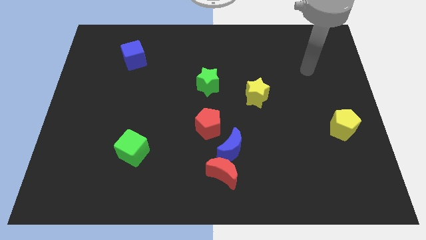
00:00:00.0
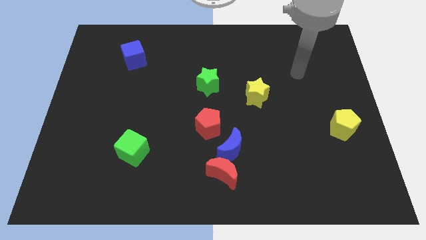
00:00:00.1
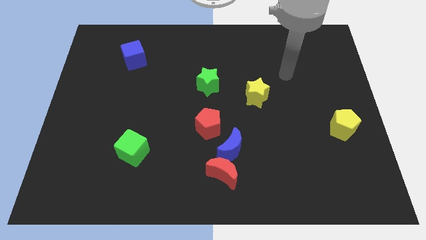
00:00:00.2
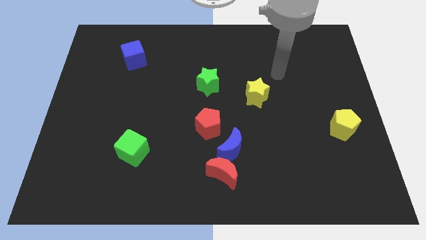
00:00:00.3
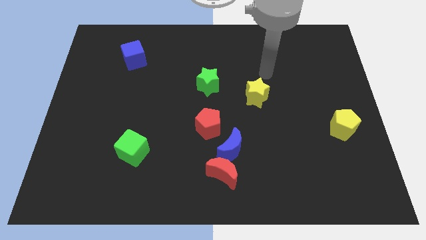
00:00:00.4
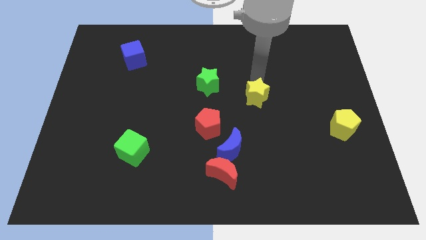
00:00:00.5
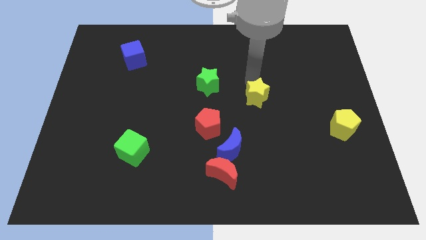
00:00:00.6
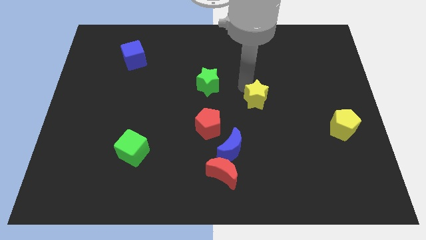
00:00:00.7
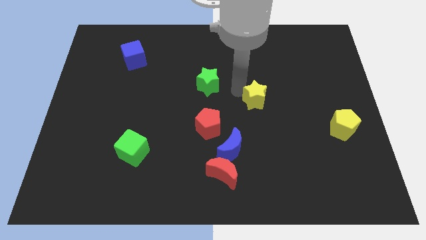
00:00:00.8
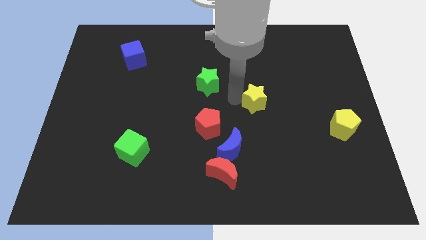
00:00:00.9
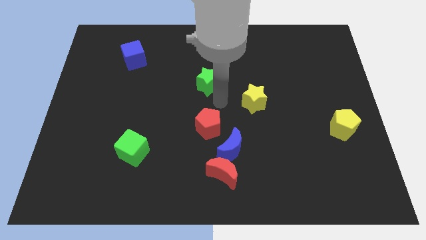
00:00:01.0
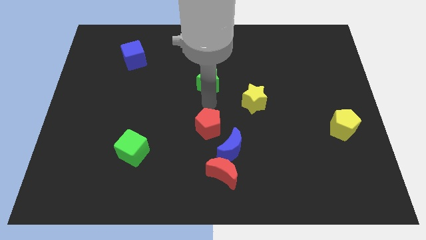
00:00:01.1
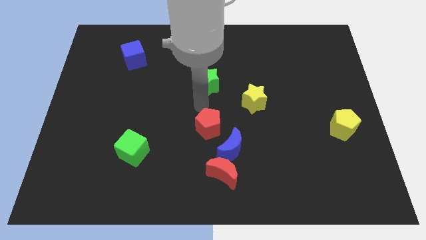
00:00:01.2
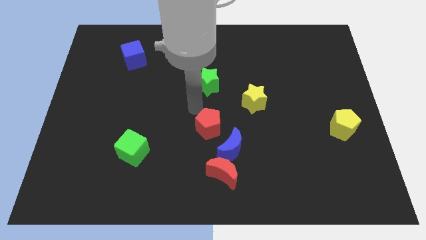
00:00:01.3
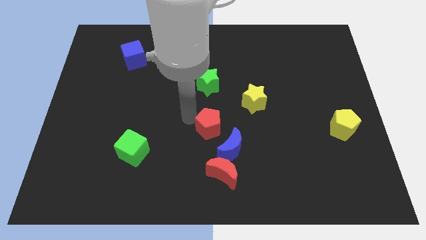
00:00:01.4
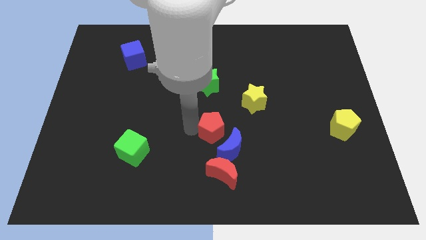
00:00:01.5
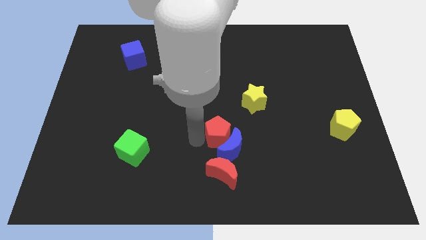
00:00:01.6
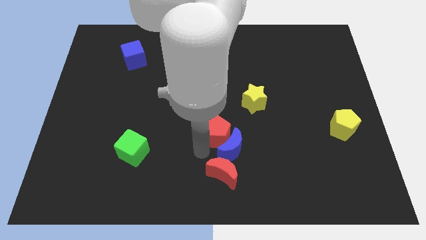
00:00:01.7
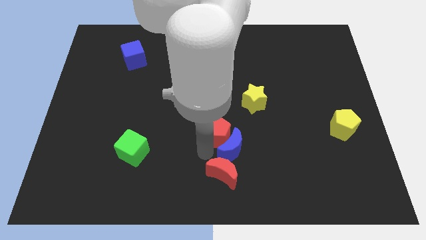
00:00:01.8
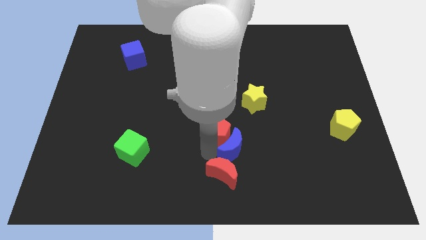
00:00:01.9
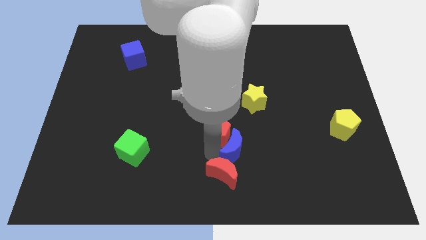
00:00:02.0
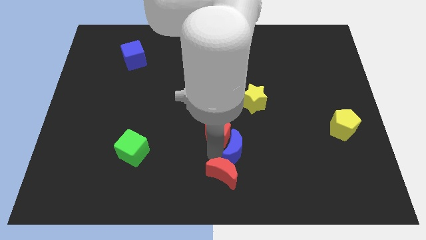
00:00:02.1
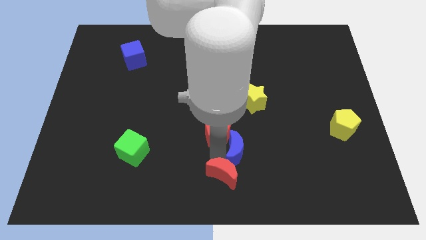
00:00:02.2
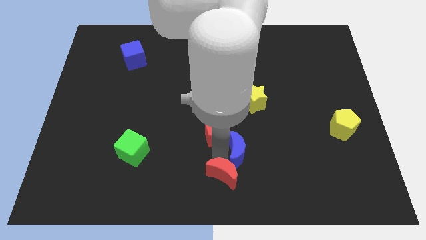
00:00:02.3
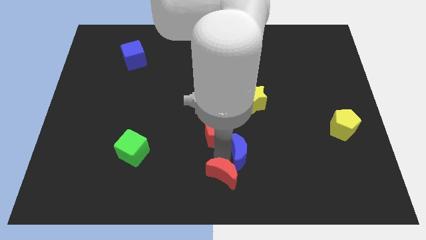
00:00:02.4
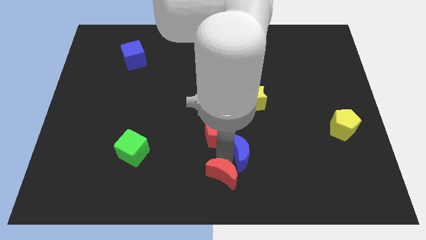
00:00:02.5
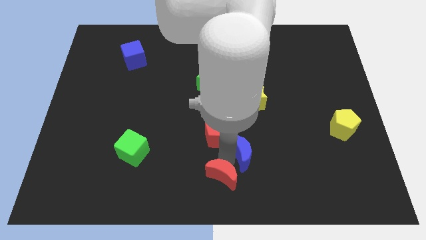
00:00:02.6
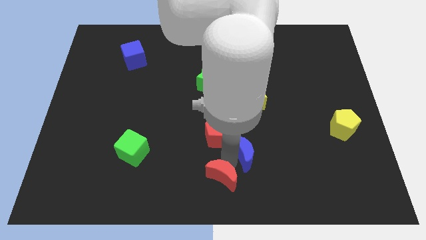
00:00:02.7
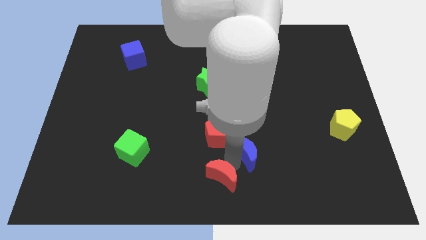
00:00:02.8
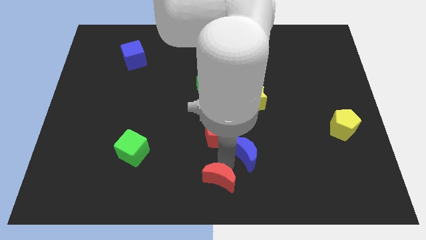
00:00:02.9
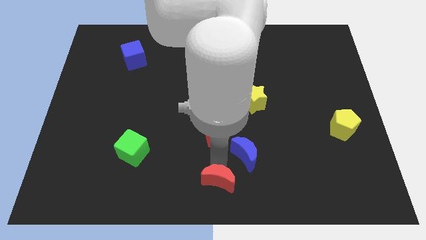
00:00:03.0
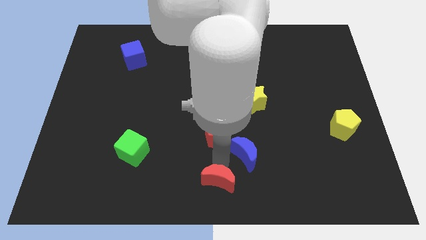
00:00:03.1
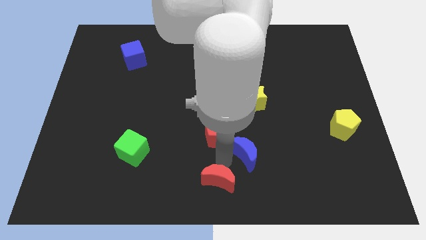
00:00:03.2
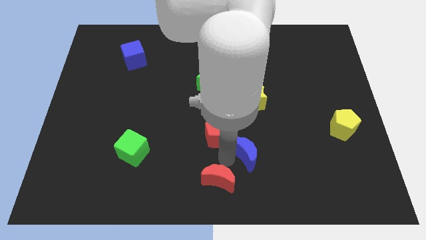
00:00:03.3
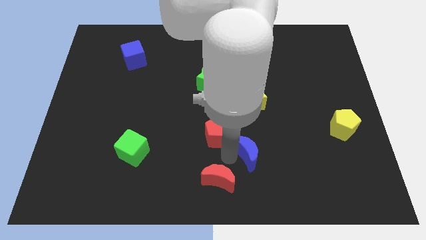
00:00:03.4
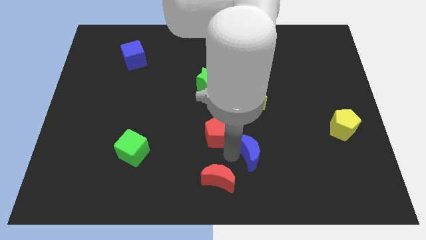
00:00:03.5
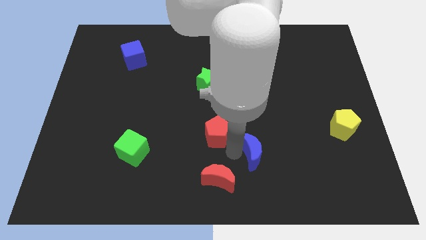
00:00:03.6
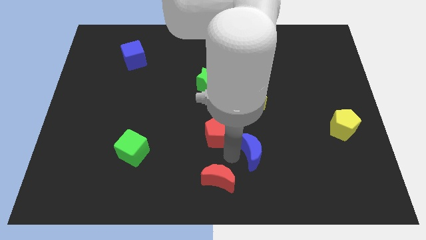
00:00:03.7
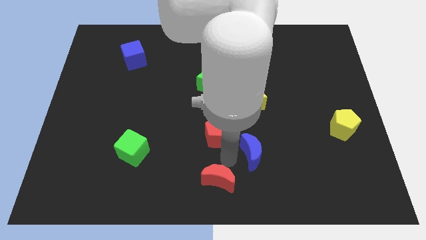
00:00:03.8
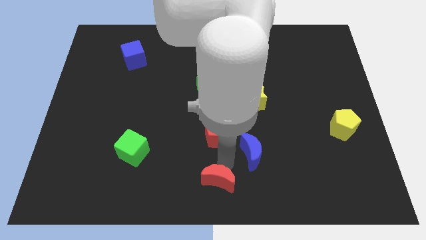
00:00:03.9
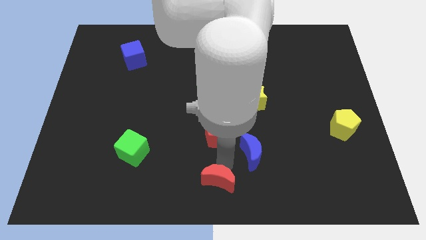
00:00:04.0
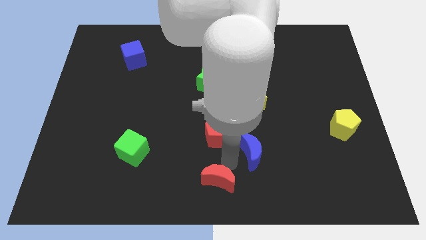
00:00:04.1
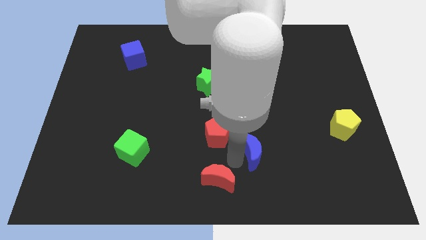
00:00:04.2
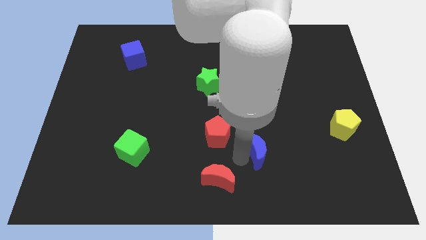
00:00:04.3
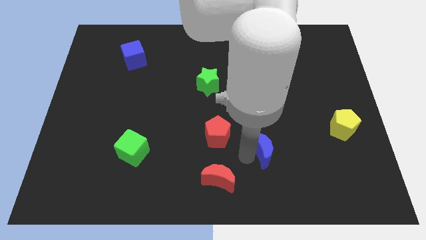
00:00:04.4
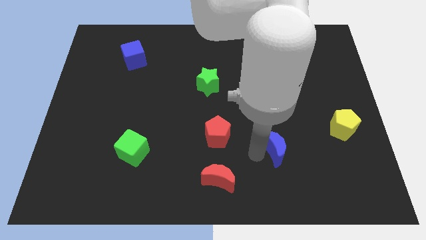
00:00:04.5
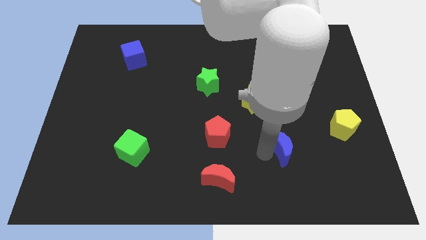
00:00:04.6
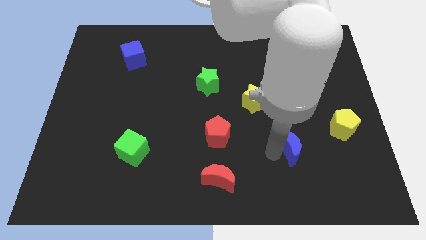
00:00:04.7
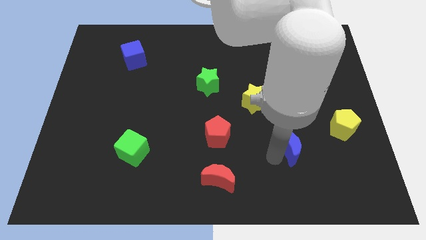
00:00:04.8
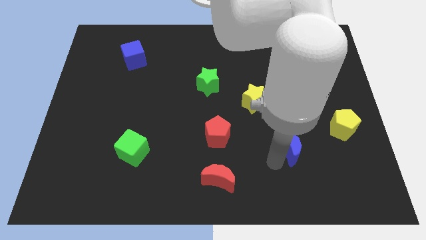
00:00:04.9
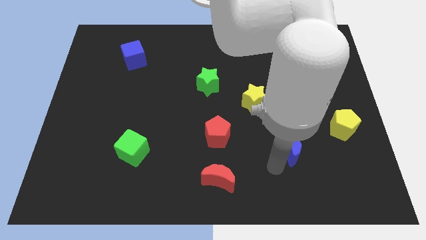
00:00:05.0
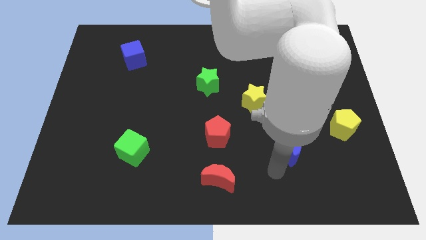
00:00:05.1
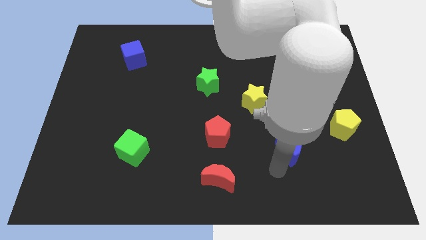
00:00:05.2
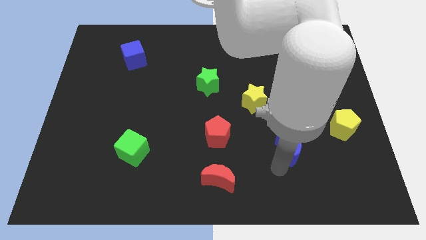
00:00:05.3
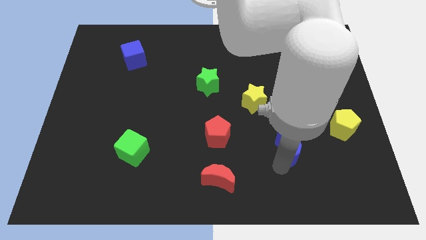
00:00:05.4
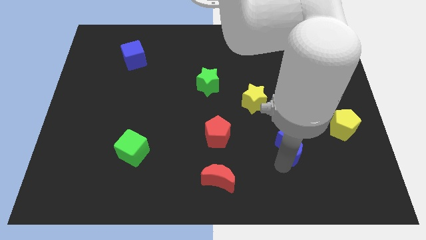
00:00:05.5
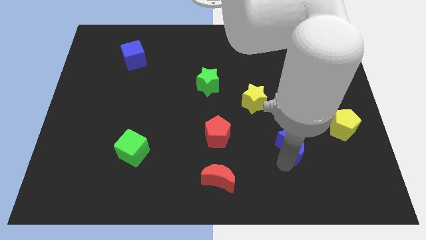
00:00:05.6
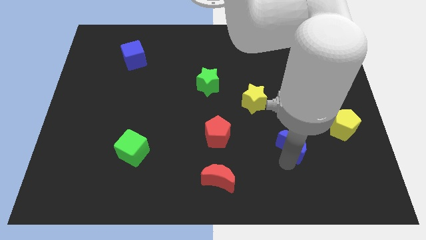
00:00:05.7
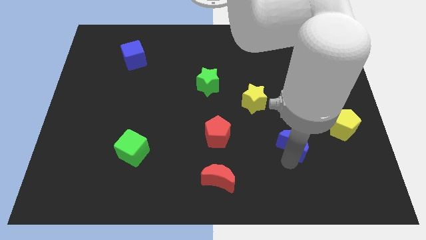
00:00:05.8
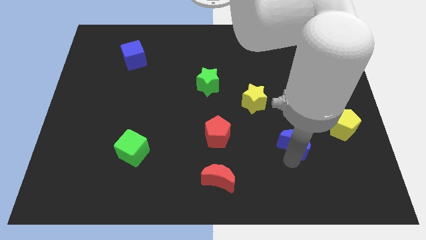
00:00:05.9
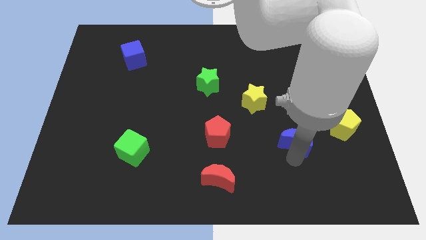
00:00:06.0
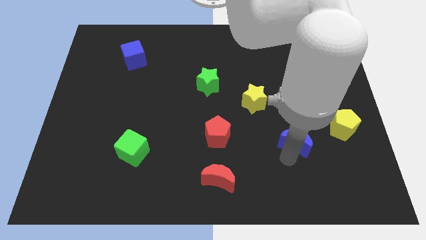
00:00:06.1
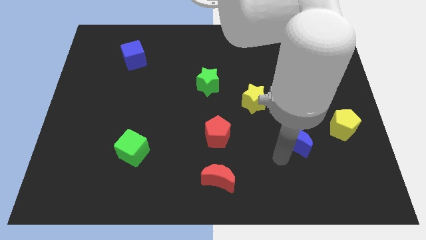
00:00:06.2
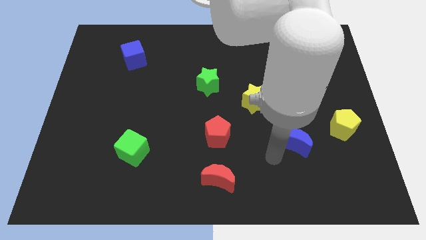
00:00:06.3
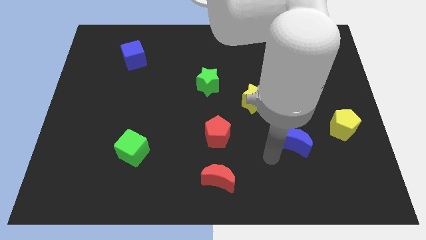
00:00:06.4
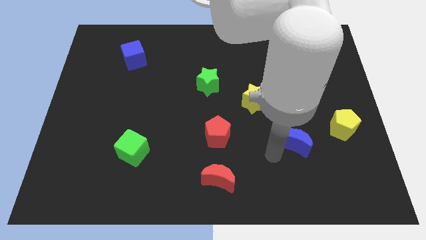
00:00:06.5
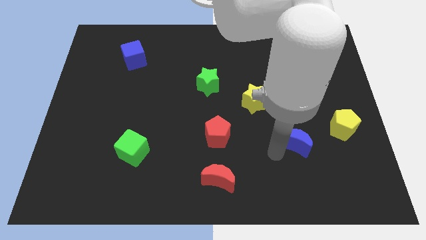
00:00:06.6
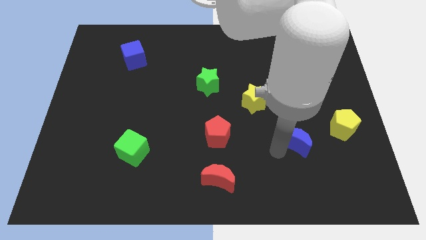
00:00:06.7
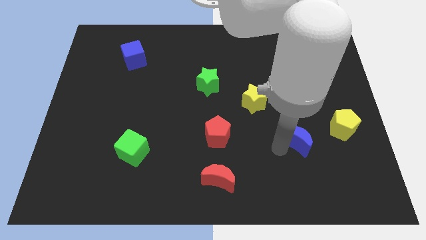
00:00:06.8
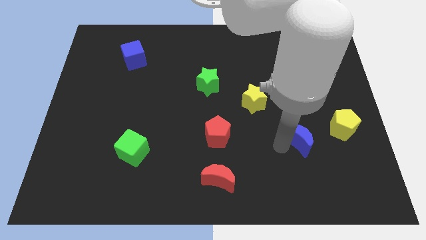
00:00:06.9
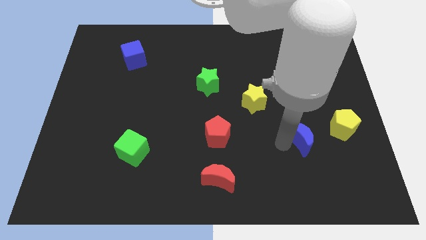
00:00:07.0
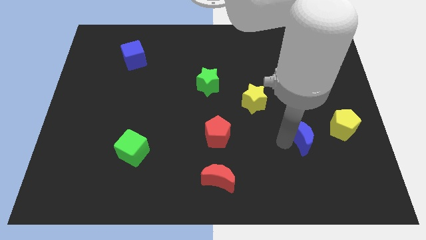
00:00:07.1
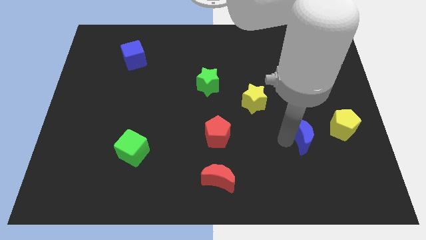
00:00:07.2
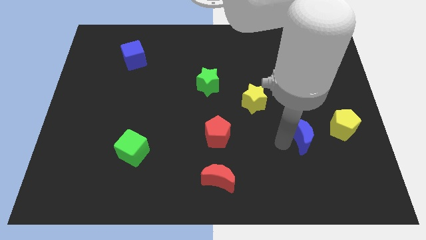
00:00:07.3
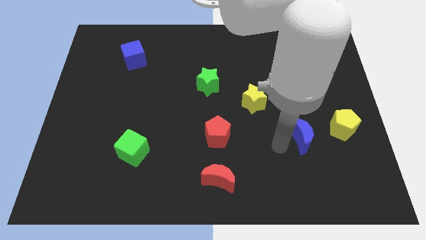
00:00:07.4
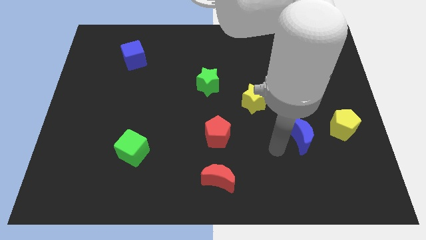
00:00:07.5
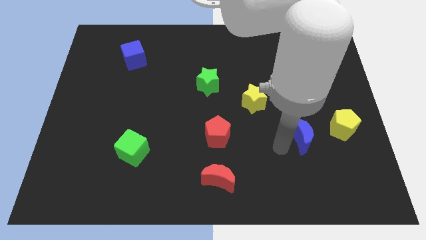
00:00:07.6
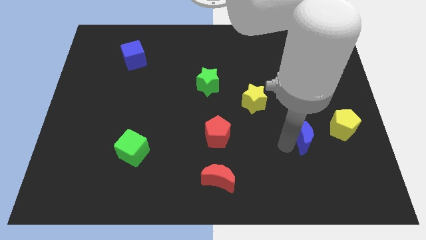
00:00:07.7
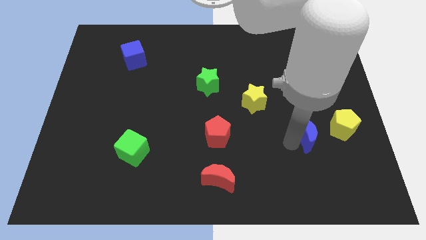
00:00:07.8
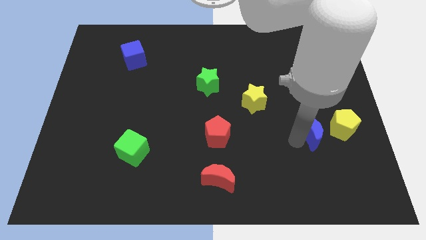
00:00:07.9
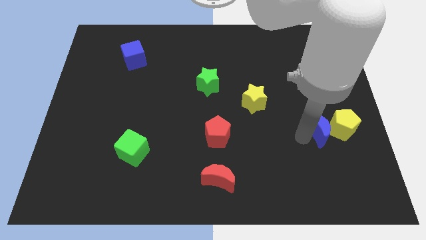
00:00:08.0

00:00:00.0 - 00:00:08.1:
move the blue moon to the yellow pentagon
